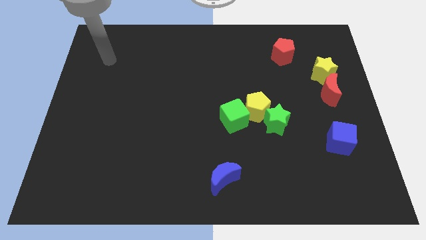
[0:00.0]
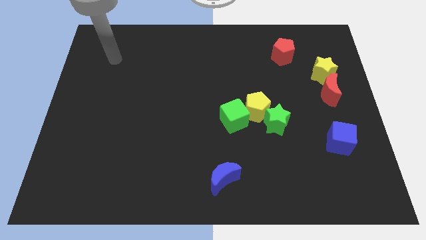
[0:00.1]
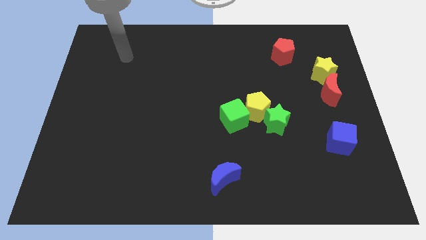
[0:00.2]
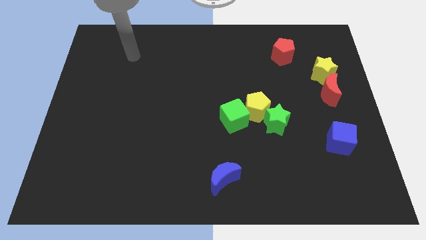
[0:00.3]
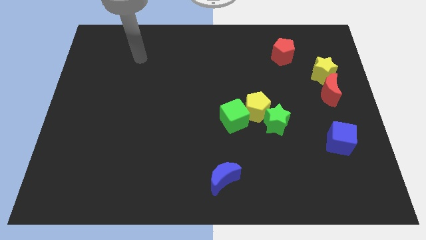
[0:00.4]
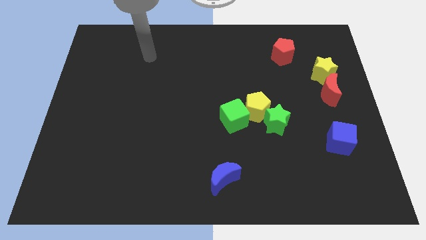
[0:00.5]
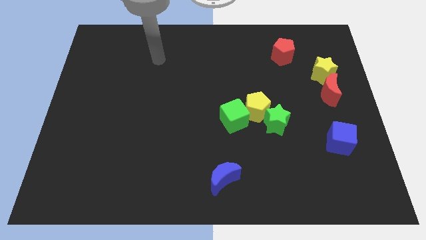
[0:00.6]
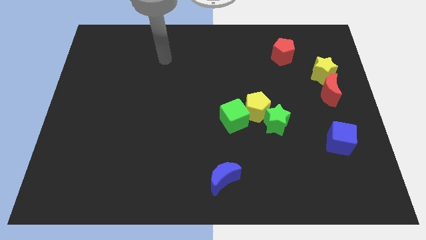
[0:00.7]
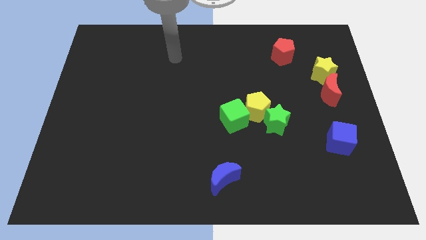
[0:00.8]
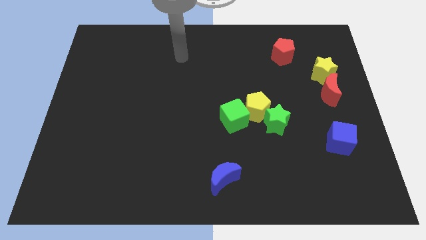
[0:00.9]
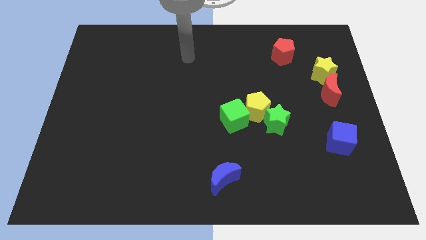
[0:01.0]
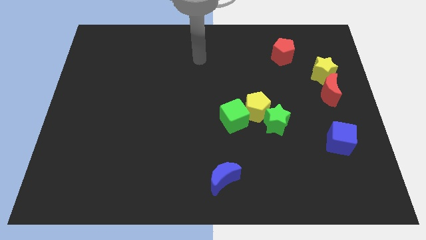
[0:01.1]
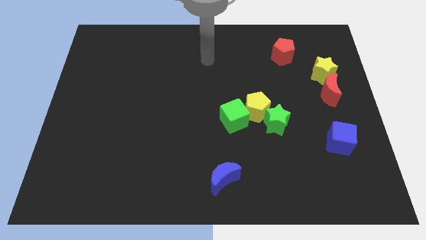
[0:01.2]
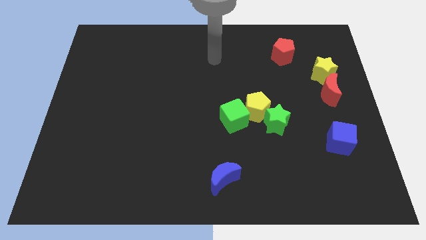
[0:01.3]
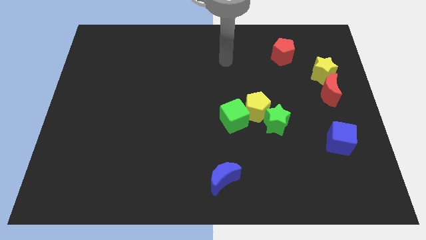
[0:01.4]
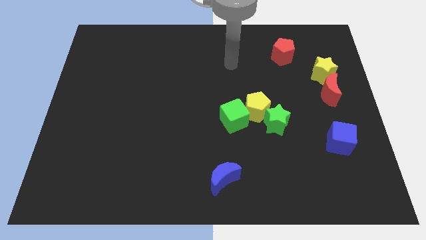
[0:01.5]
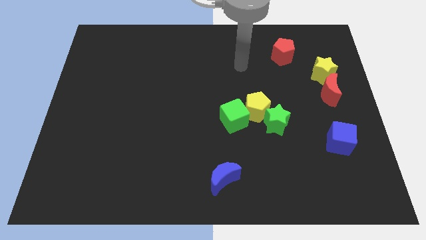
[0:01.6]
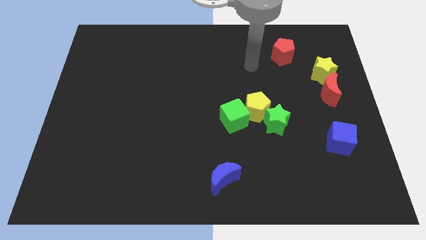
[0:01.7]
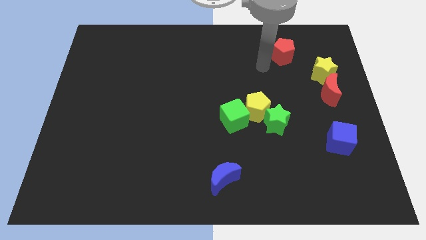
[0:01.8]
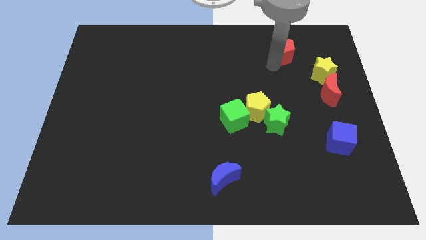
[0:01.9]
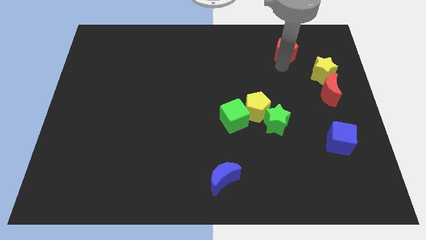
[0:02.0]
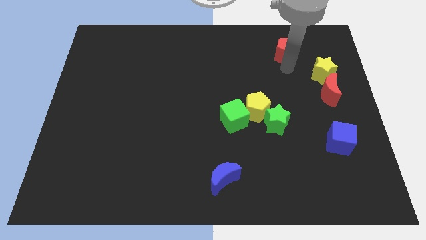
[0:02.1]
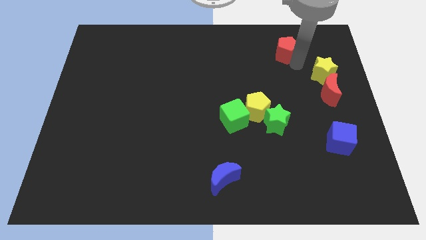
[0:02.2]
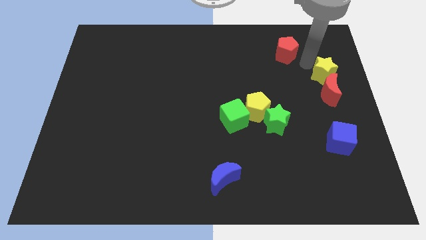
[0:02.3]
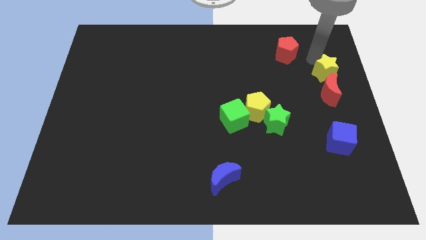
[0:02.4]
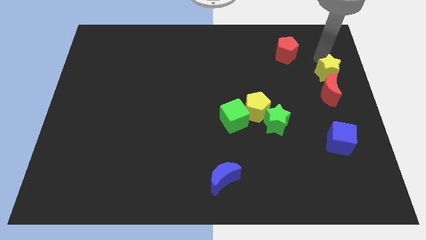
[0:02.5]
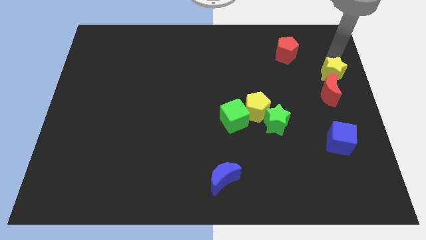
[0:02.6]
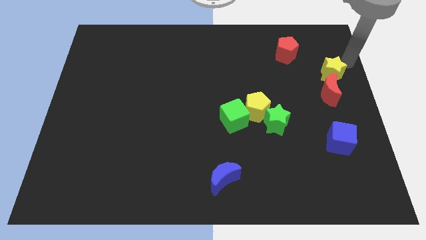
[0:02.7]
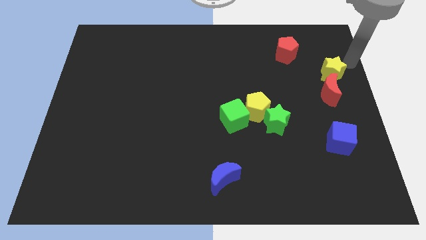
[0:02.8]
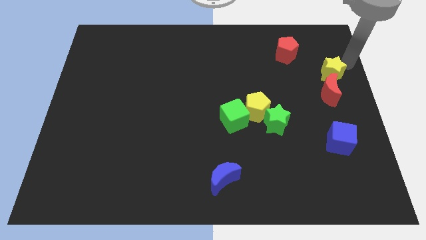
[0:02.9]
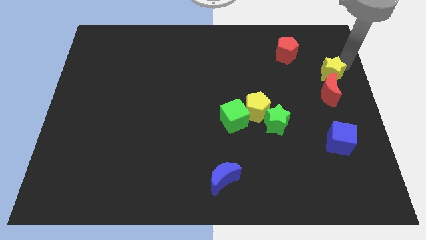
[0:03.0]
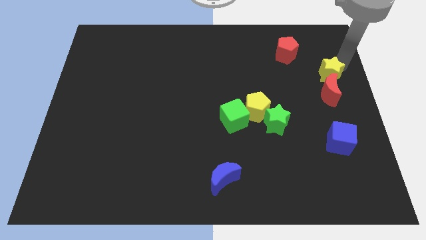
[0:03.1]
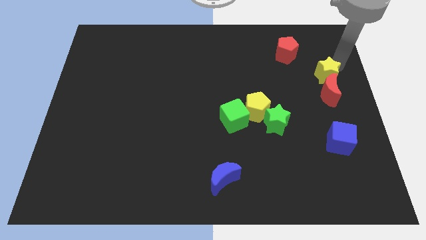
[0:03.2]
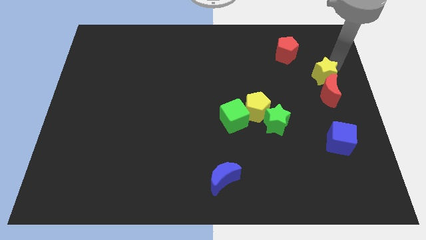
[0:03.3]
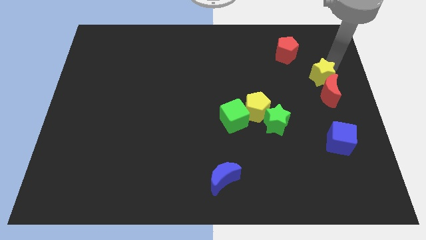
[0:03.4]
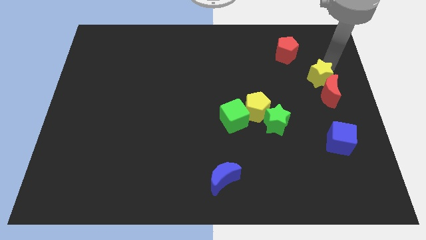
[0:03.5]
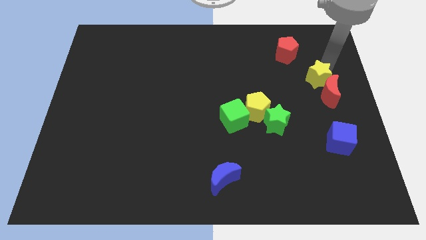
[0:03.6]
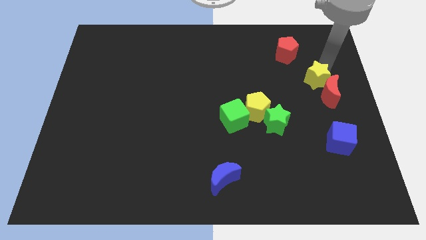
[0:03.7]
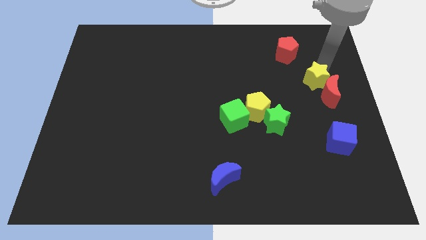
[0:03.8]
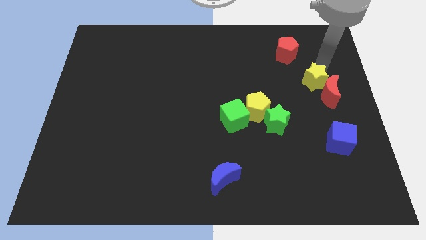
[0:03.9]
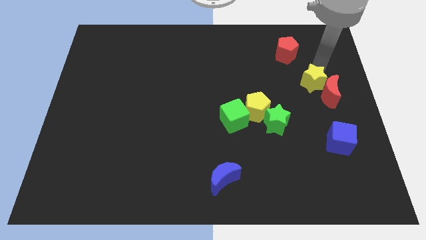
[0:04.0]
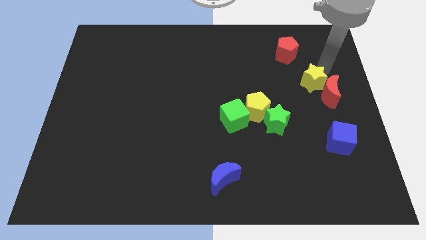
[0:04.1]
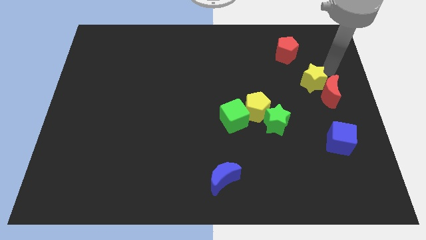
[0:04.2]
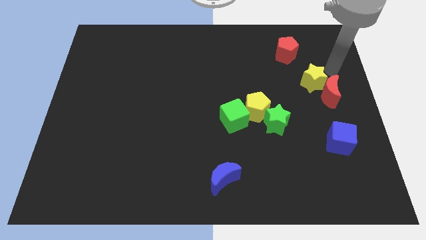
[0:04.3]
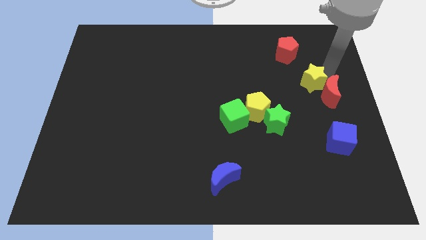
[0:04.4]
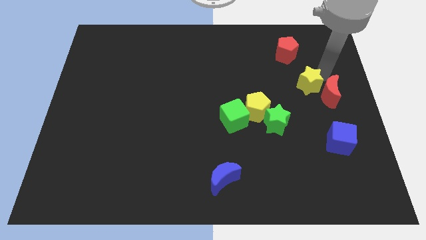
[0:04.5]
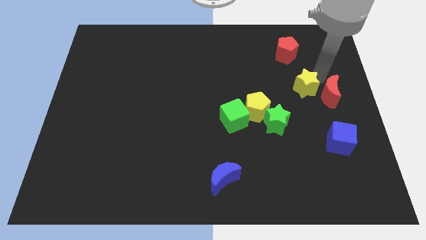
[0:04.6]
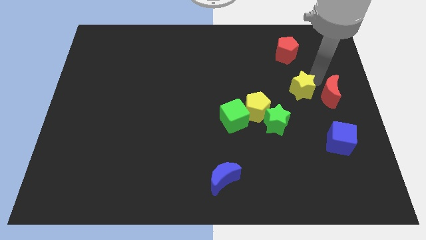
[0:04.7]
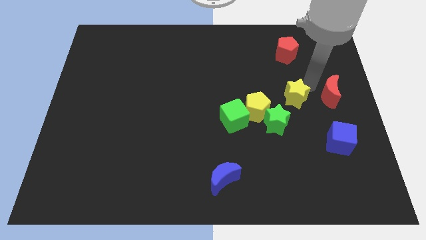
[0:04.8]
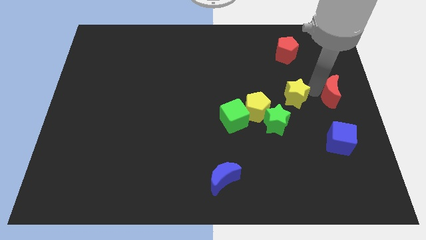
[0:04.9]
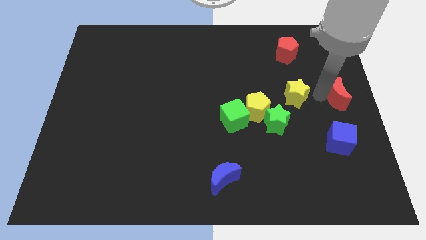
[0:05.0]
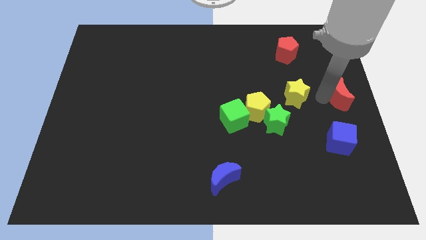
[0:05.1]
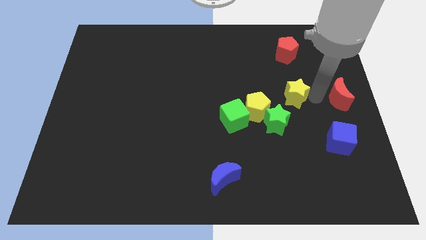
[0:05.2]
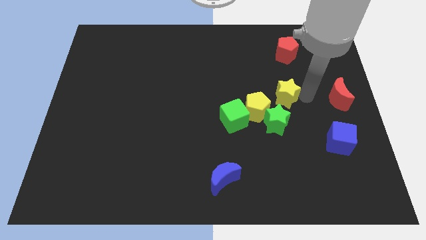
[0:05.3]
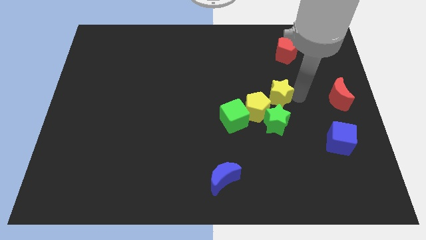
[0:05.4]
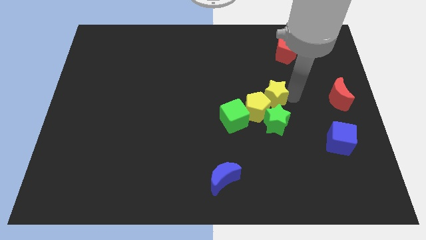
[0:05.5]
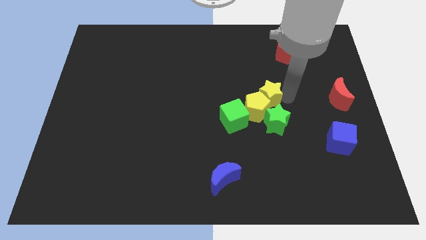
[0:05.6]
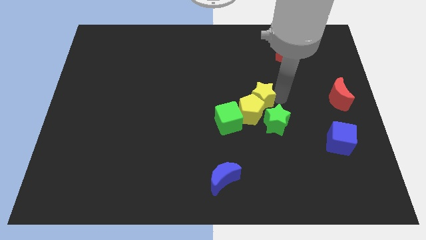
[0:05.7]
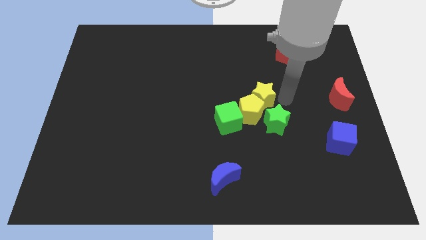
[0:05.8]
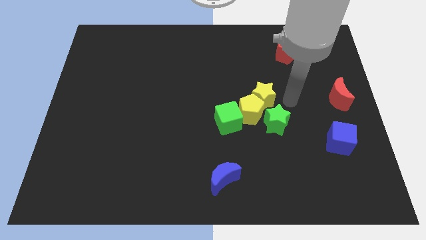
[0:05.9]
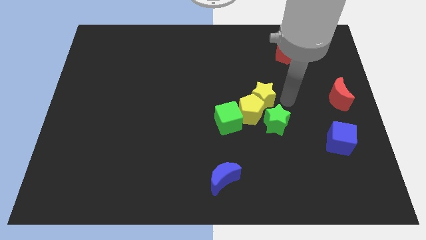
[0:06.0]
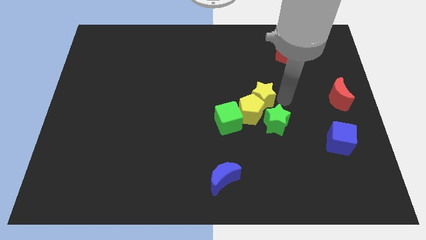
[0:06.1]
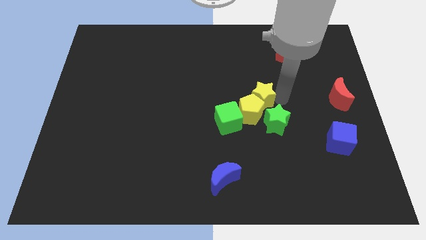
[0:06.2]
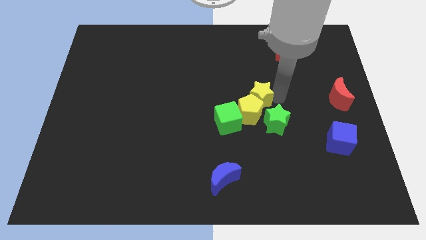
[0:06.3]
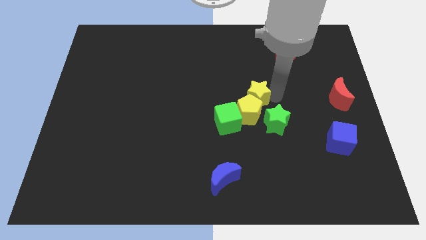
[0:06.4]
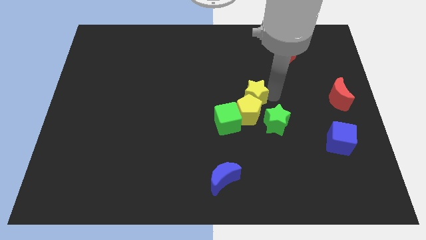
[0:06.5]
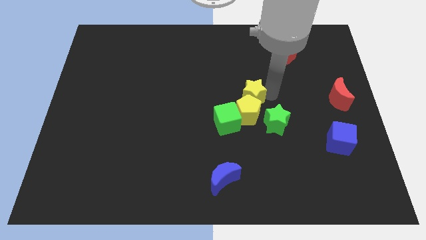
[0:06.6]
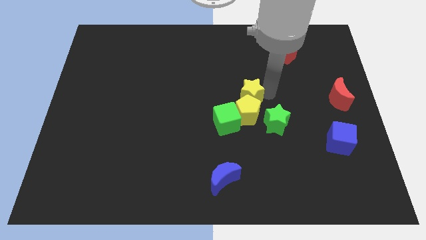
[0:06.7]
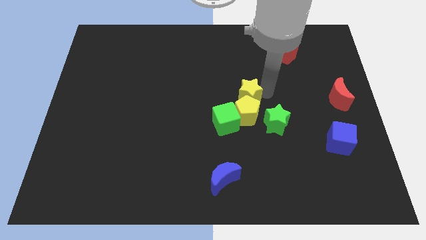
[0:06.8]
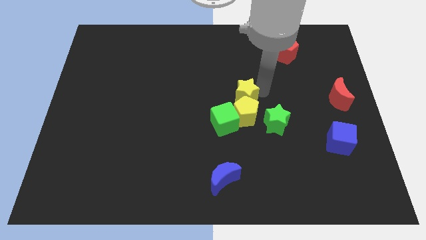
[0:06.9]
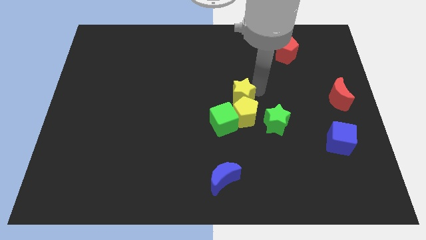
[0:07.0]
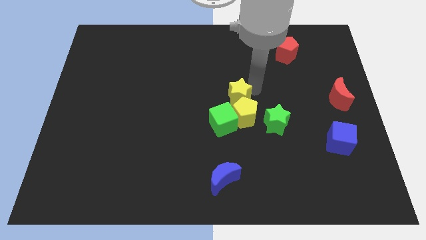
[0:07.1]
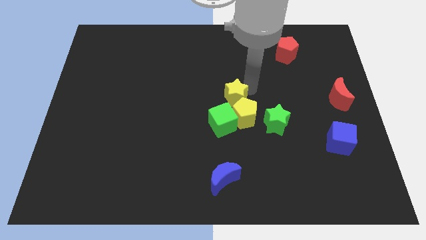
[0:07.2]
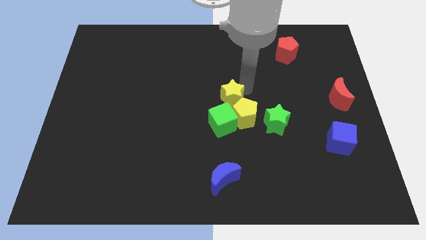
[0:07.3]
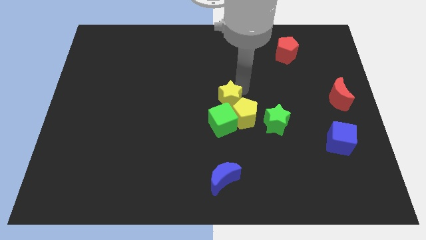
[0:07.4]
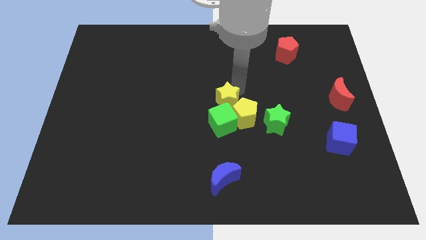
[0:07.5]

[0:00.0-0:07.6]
move the yellow star to the left side of the yellow pentagon
